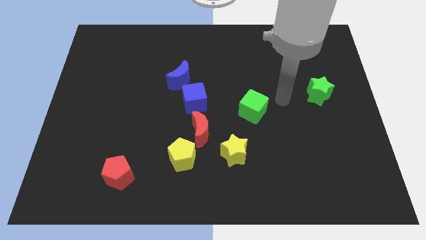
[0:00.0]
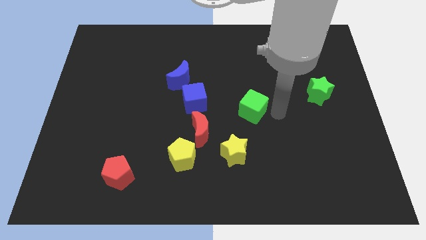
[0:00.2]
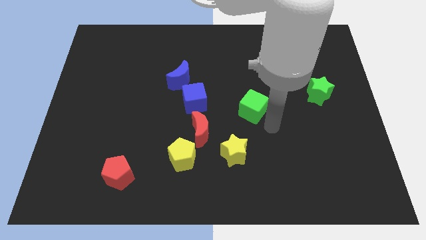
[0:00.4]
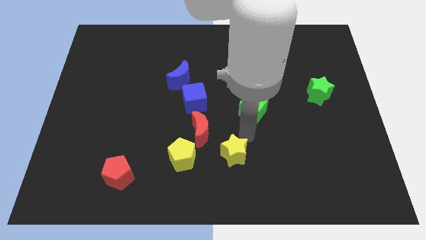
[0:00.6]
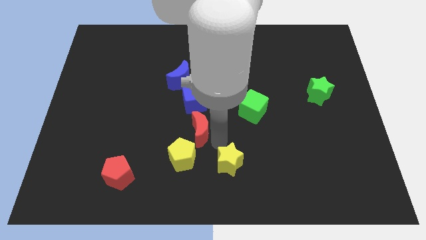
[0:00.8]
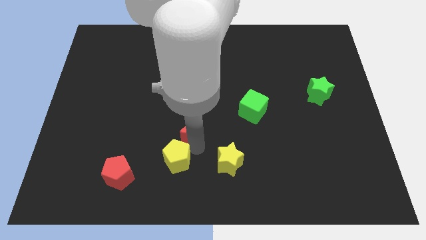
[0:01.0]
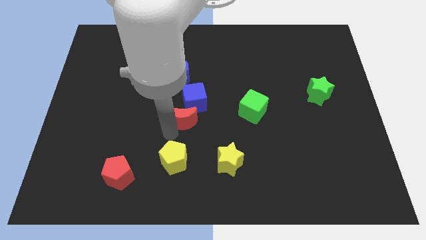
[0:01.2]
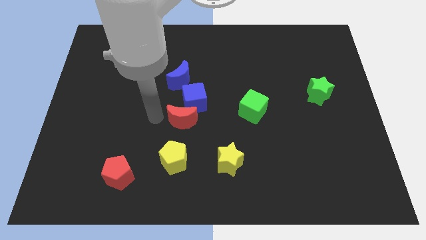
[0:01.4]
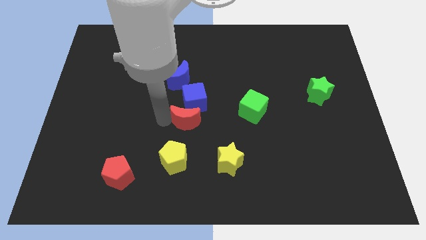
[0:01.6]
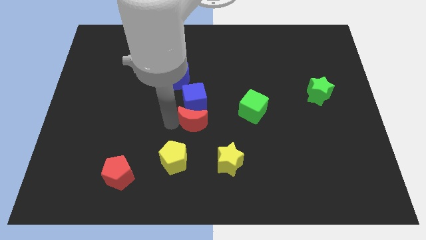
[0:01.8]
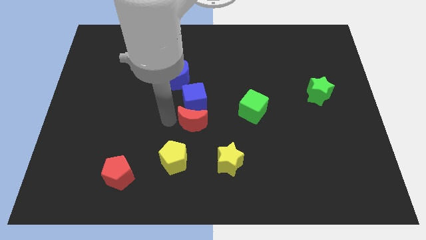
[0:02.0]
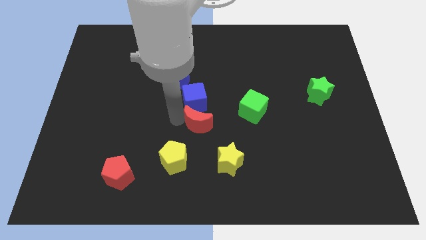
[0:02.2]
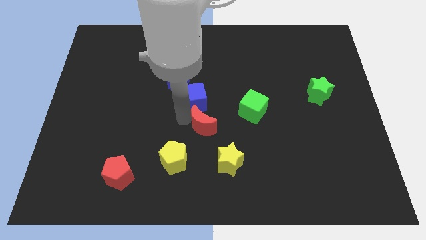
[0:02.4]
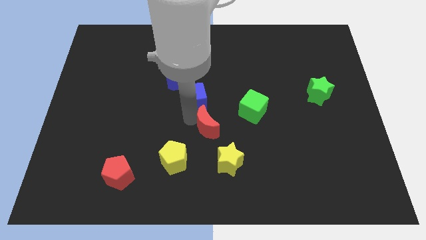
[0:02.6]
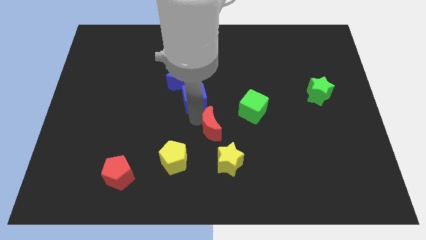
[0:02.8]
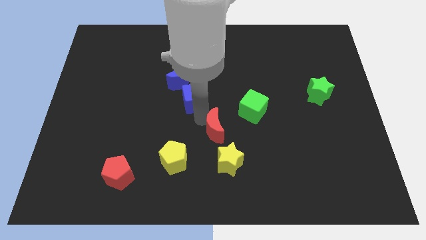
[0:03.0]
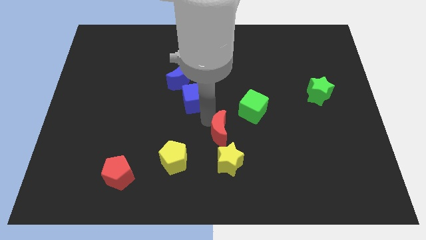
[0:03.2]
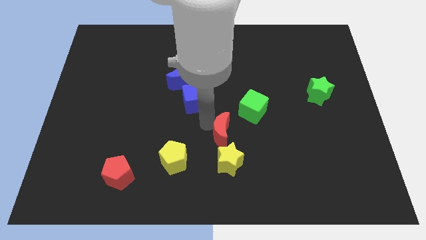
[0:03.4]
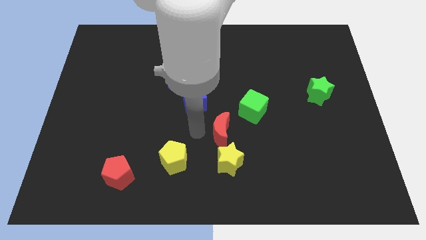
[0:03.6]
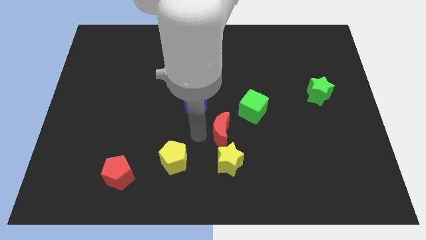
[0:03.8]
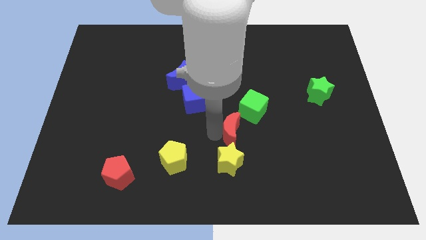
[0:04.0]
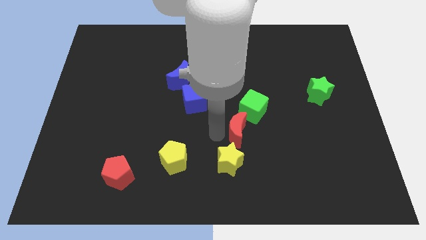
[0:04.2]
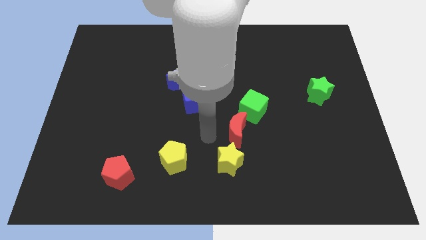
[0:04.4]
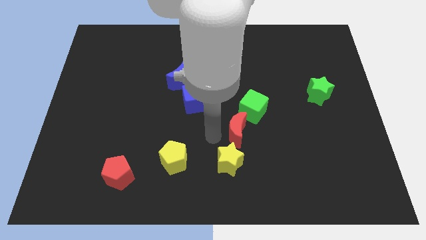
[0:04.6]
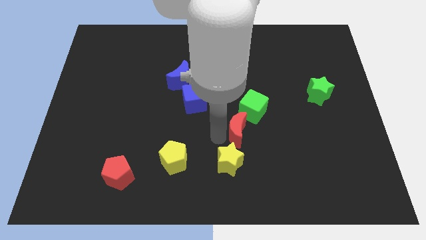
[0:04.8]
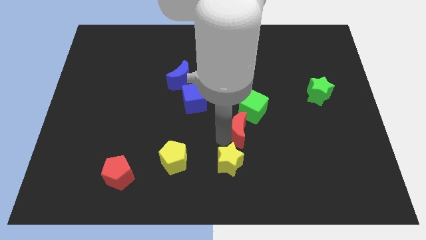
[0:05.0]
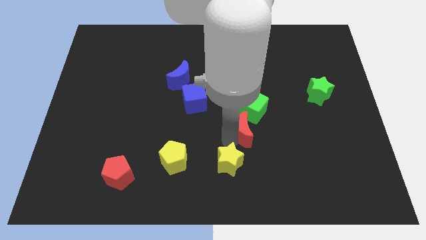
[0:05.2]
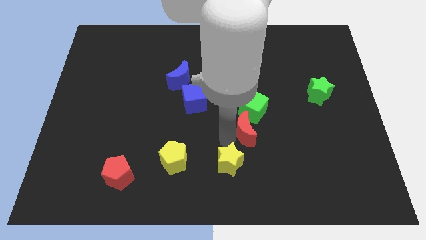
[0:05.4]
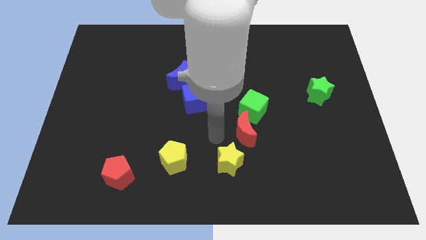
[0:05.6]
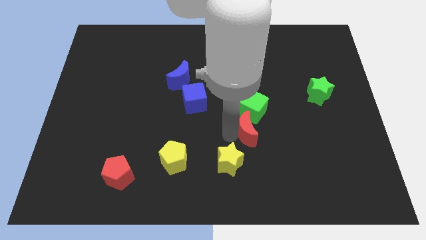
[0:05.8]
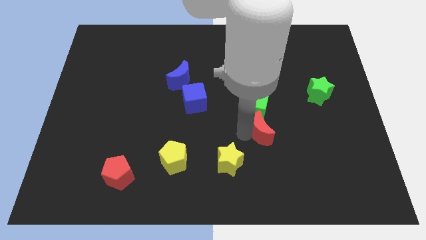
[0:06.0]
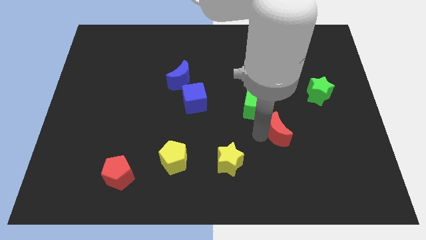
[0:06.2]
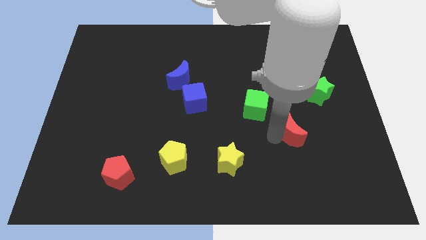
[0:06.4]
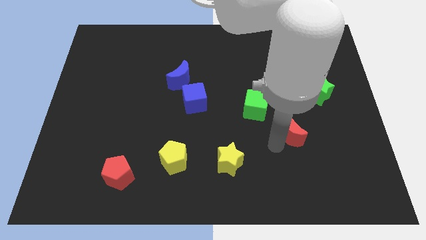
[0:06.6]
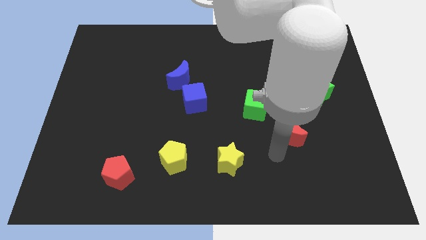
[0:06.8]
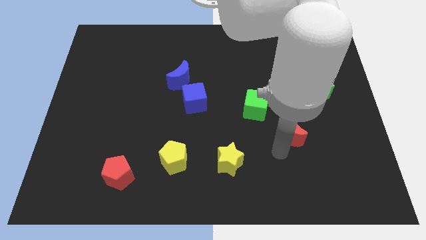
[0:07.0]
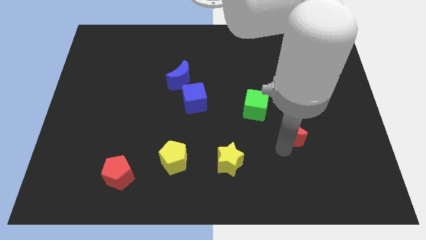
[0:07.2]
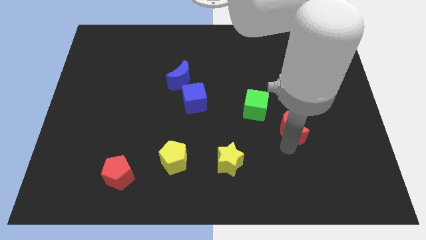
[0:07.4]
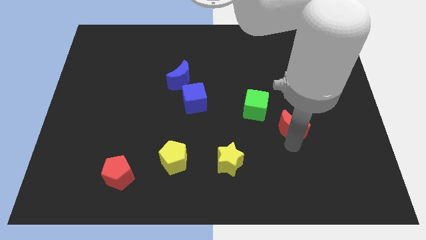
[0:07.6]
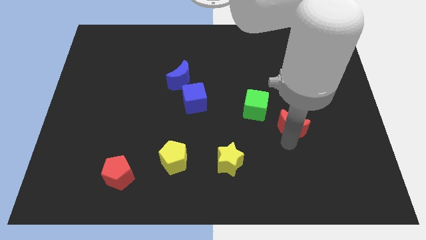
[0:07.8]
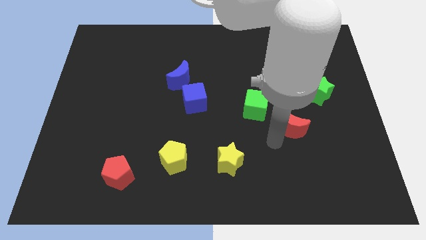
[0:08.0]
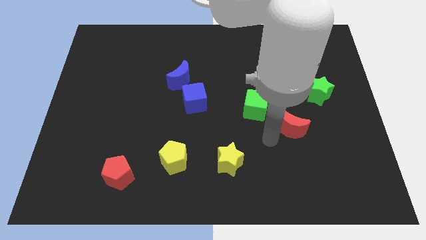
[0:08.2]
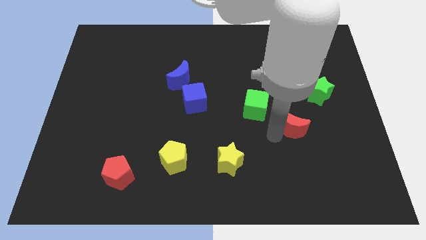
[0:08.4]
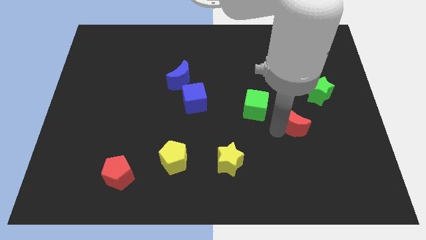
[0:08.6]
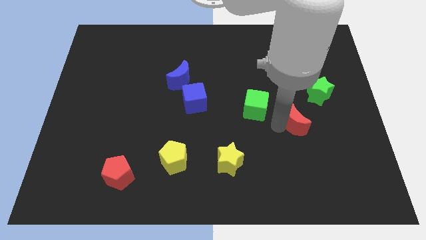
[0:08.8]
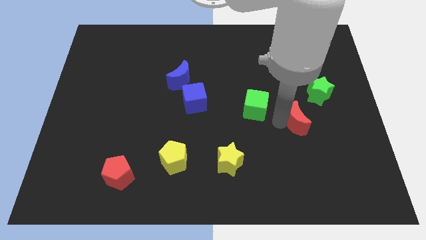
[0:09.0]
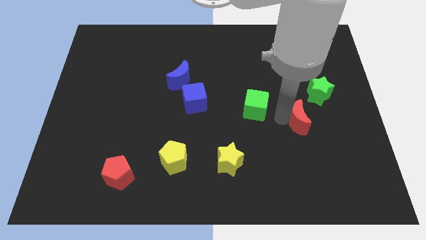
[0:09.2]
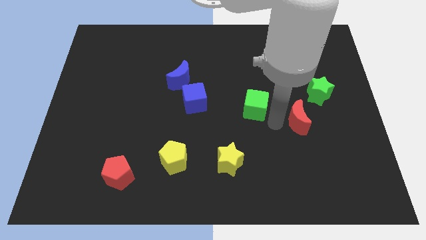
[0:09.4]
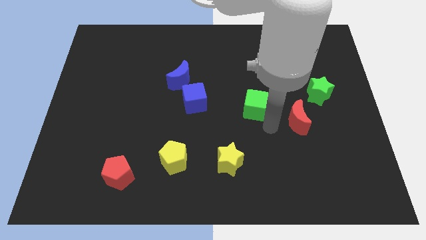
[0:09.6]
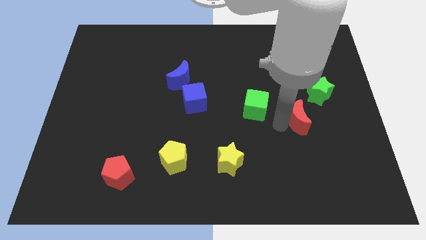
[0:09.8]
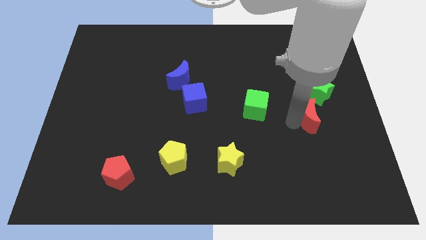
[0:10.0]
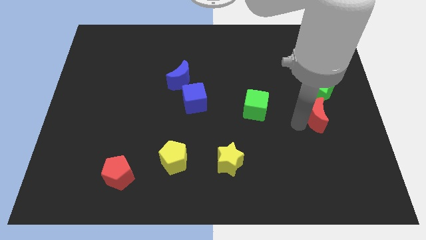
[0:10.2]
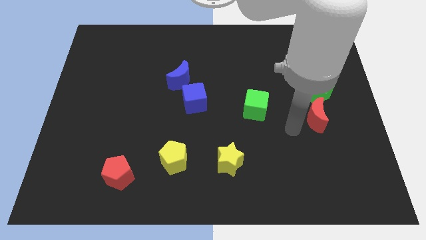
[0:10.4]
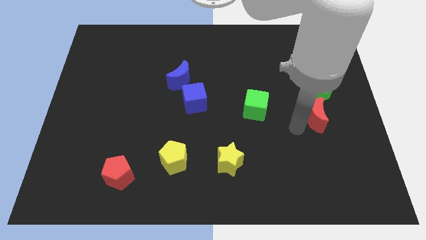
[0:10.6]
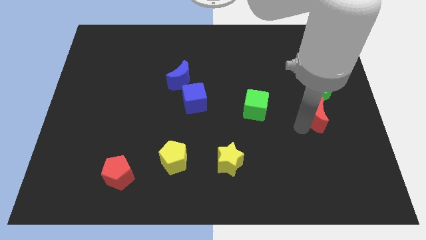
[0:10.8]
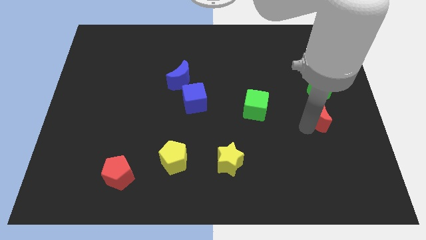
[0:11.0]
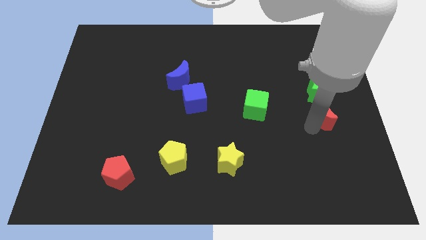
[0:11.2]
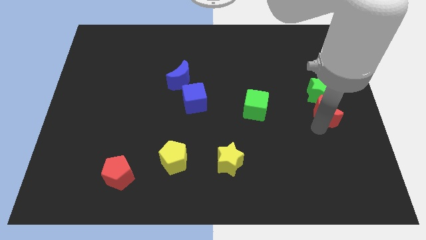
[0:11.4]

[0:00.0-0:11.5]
slide the red moon to the center right

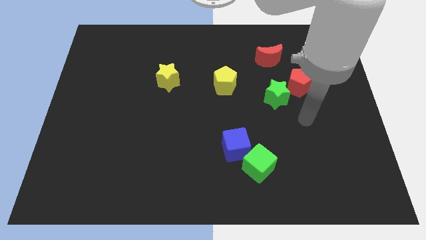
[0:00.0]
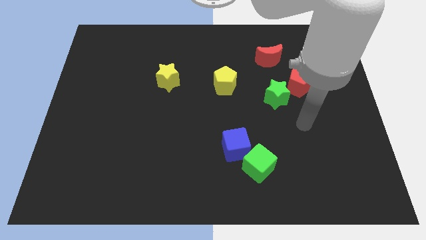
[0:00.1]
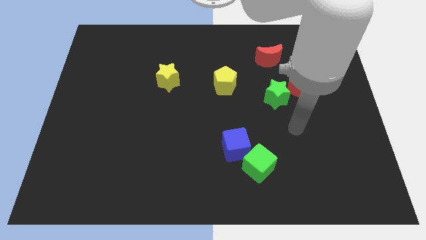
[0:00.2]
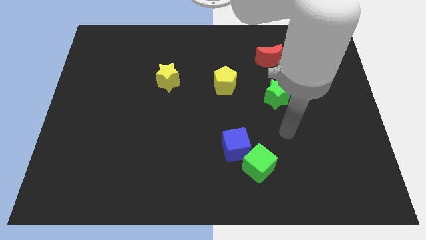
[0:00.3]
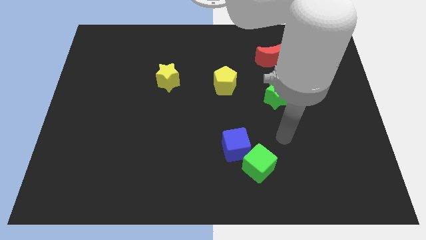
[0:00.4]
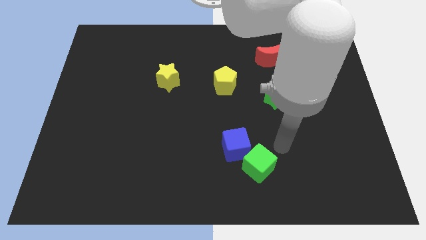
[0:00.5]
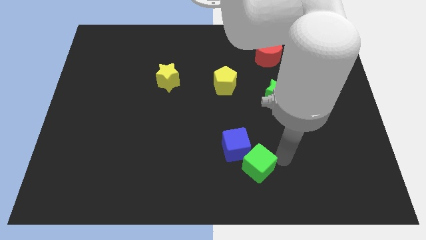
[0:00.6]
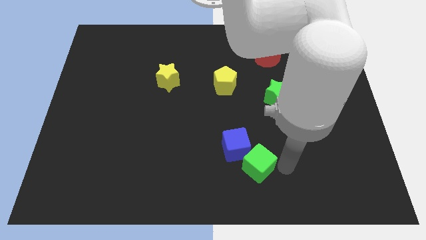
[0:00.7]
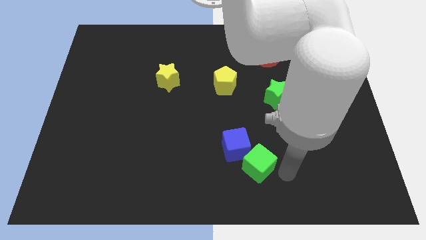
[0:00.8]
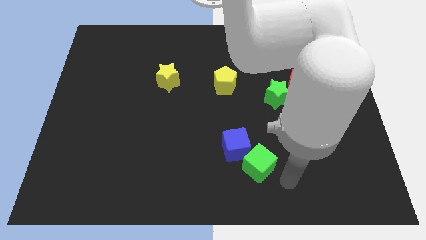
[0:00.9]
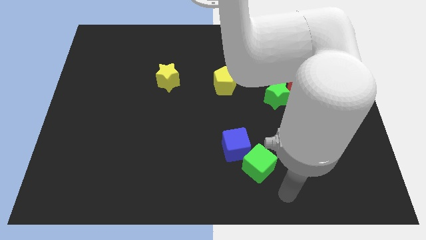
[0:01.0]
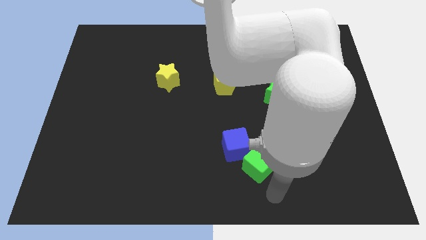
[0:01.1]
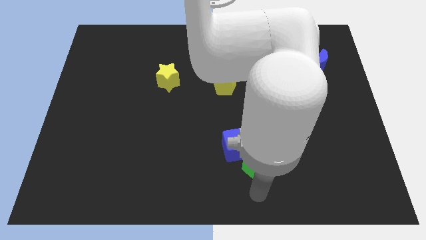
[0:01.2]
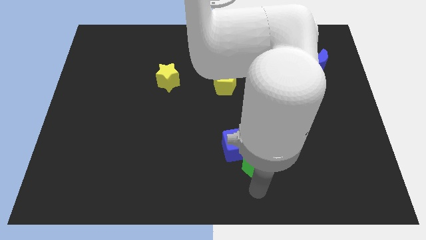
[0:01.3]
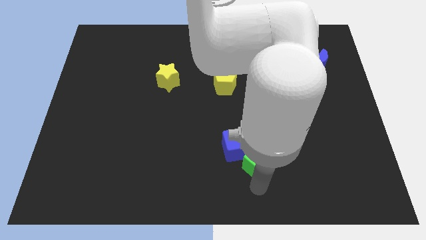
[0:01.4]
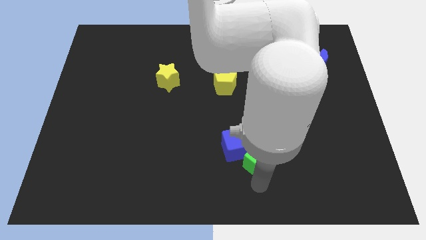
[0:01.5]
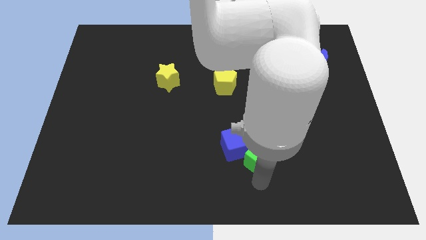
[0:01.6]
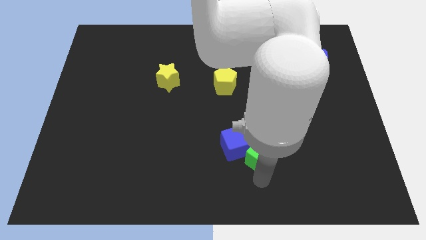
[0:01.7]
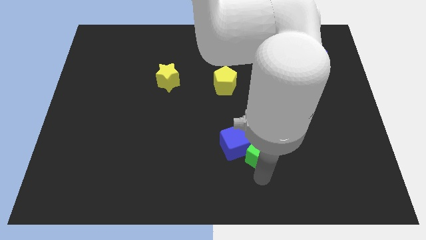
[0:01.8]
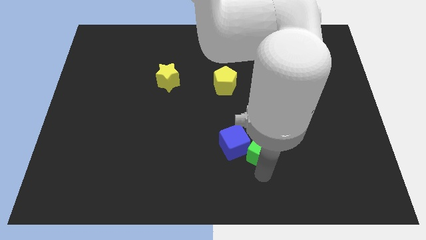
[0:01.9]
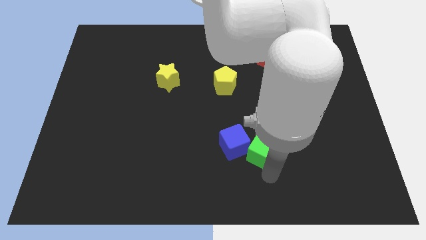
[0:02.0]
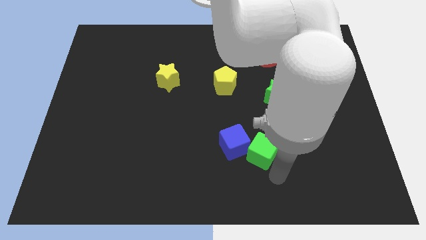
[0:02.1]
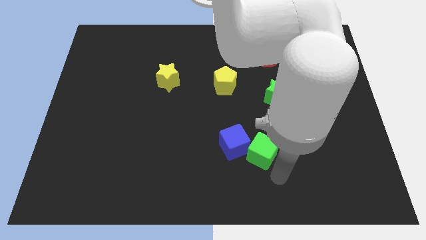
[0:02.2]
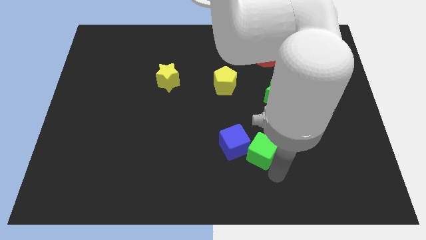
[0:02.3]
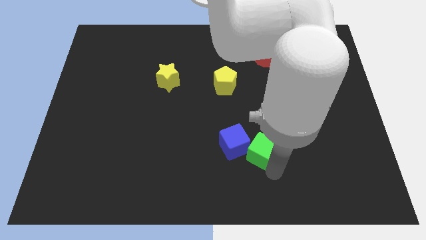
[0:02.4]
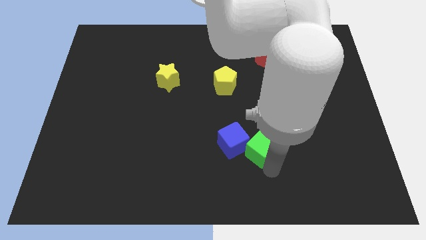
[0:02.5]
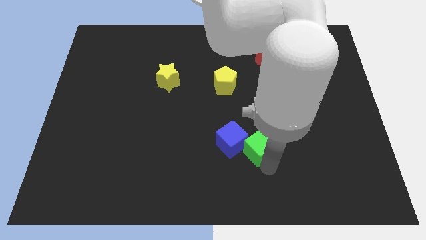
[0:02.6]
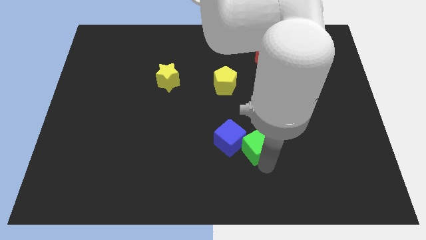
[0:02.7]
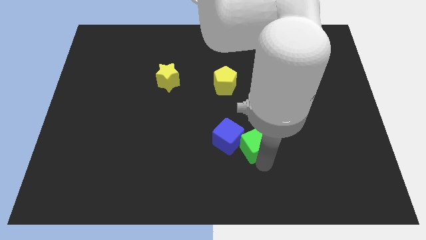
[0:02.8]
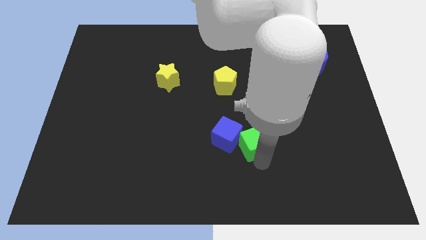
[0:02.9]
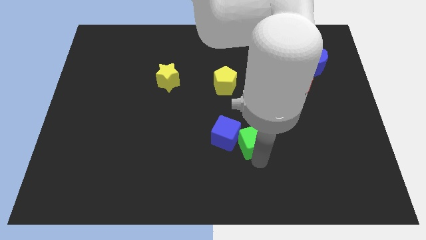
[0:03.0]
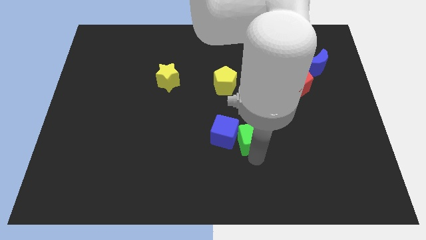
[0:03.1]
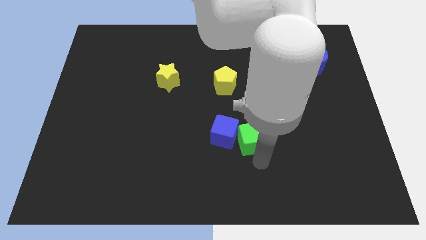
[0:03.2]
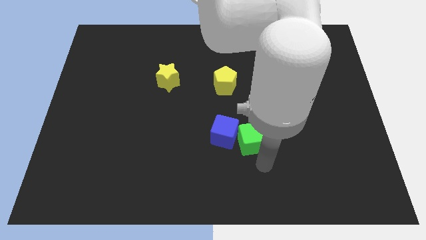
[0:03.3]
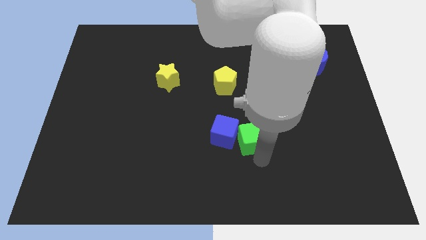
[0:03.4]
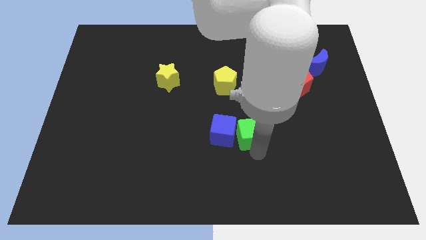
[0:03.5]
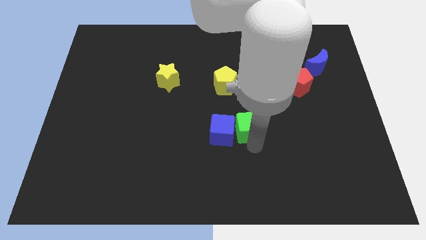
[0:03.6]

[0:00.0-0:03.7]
slide the green cube to the middle of the board
